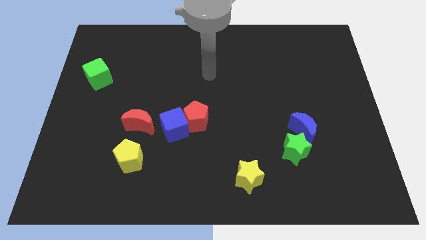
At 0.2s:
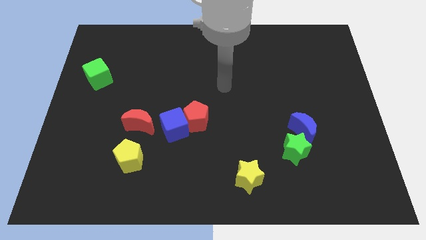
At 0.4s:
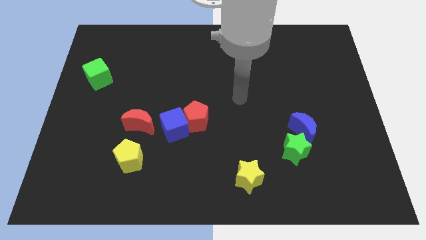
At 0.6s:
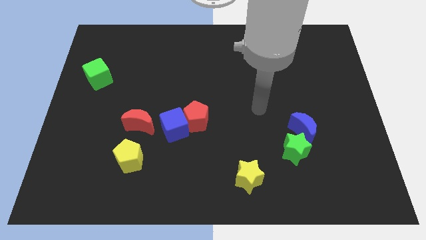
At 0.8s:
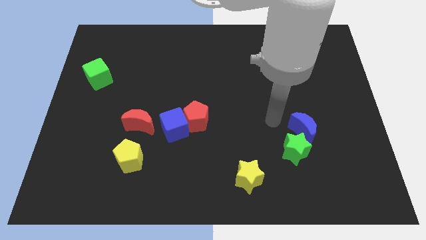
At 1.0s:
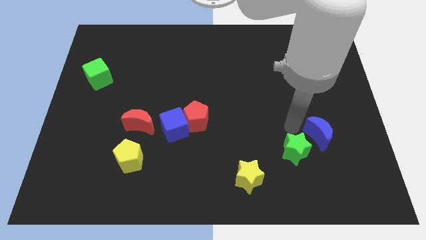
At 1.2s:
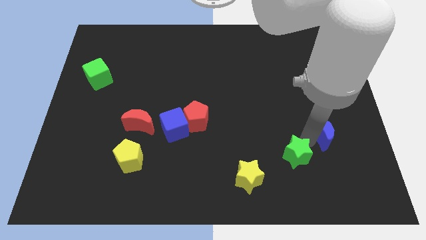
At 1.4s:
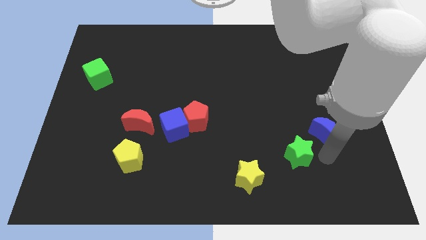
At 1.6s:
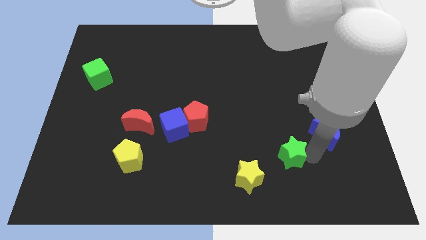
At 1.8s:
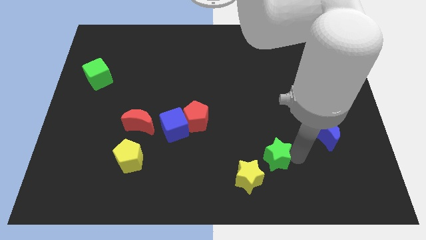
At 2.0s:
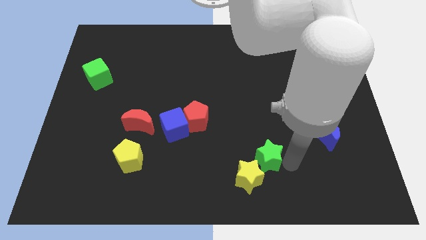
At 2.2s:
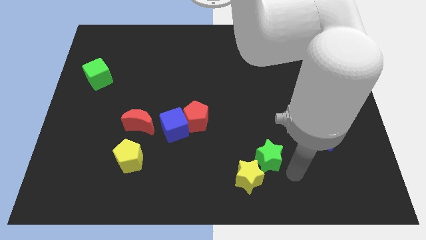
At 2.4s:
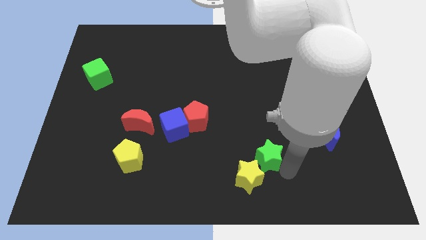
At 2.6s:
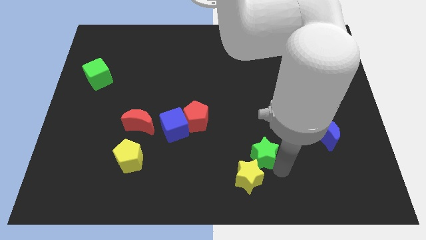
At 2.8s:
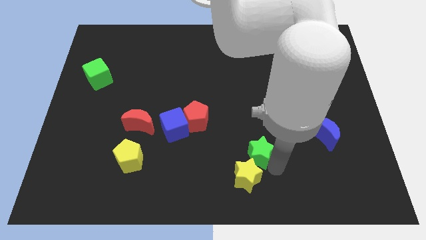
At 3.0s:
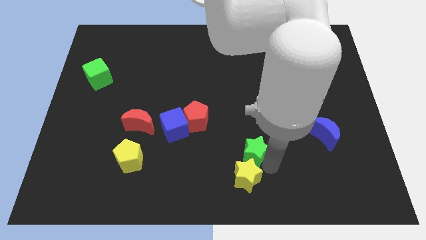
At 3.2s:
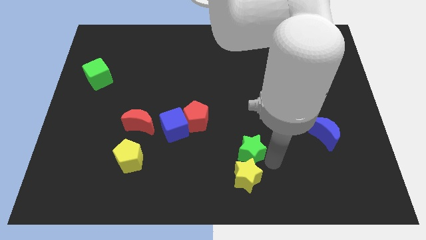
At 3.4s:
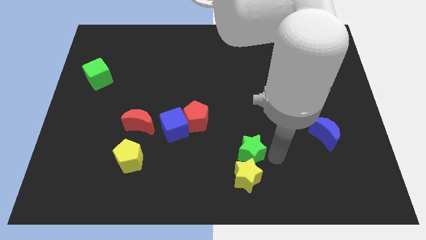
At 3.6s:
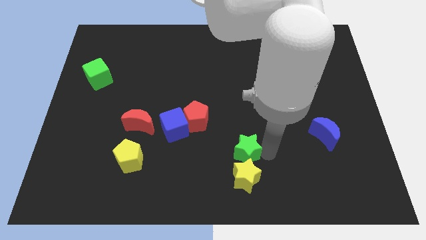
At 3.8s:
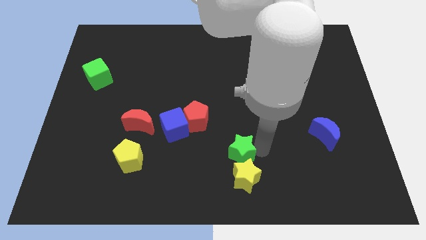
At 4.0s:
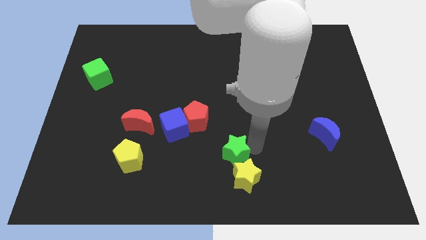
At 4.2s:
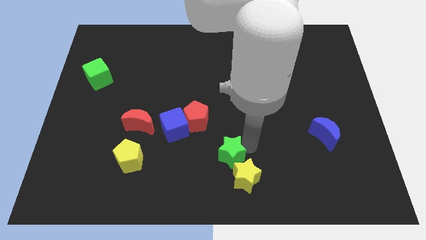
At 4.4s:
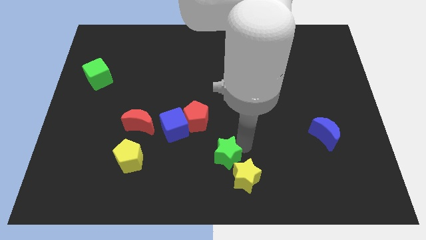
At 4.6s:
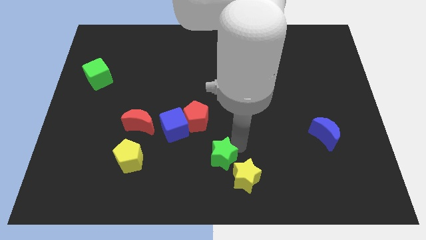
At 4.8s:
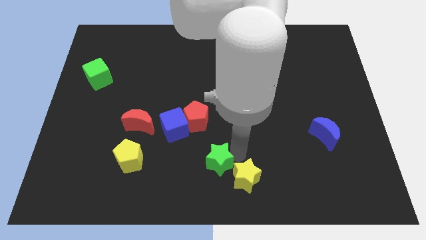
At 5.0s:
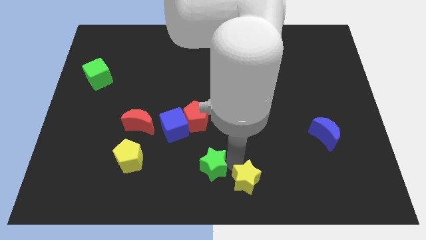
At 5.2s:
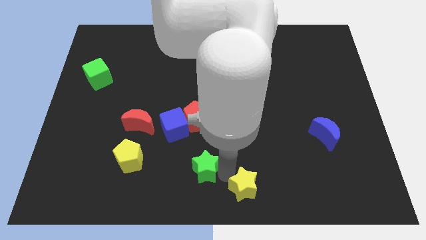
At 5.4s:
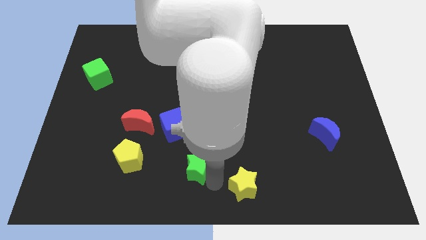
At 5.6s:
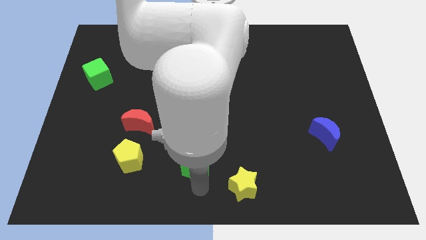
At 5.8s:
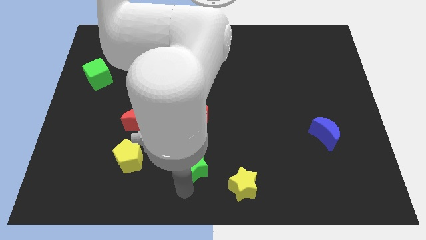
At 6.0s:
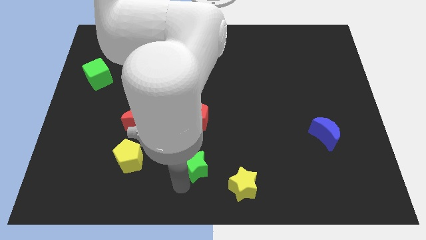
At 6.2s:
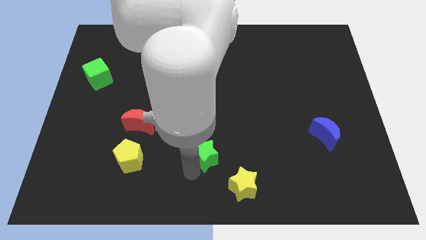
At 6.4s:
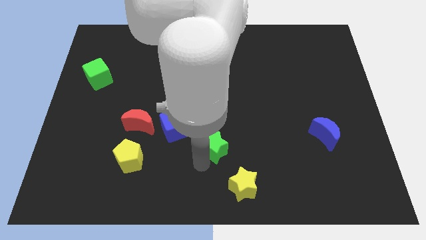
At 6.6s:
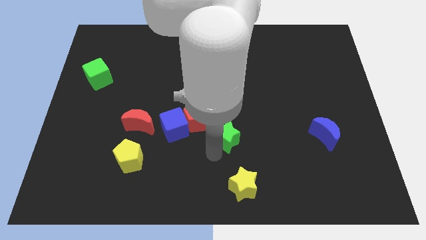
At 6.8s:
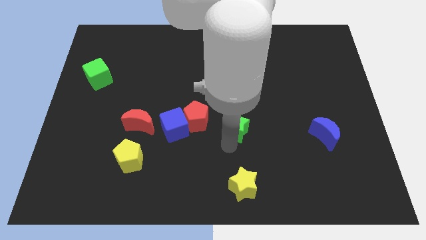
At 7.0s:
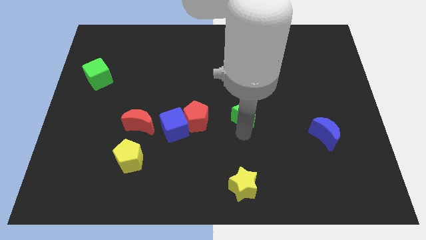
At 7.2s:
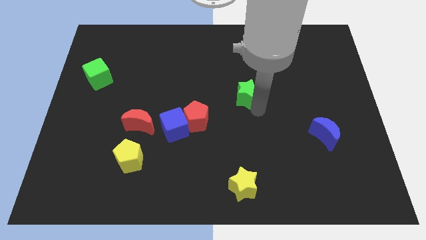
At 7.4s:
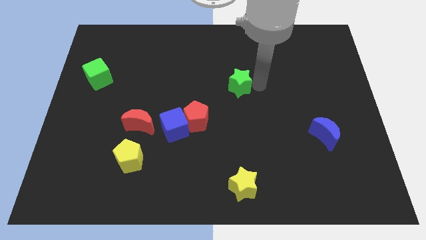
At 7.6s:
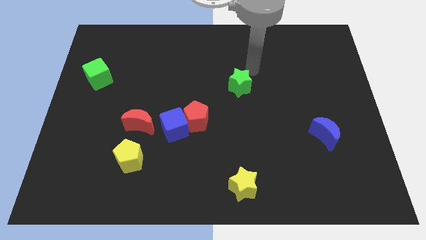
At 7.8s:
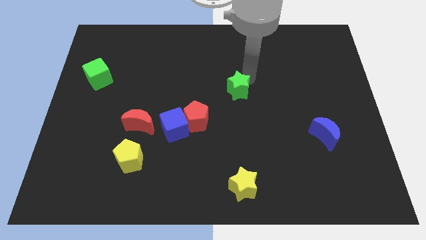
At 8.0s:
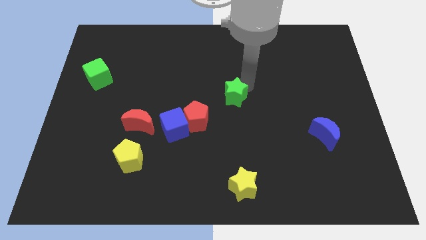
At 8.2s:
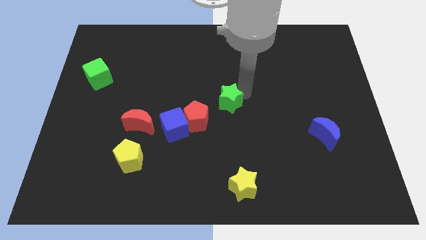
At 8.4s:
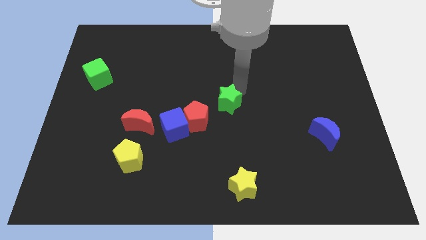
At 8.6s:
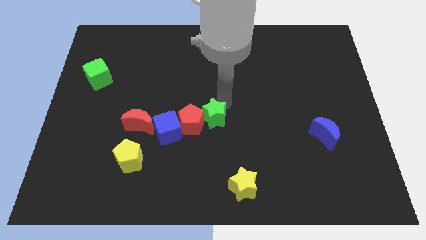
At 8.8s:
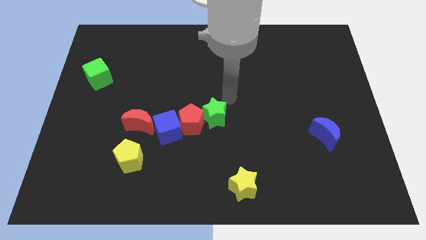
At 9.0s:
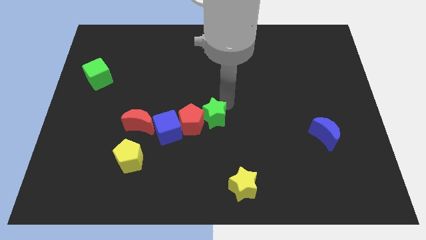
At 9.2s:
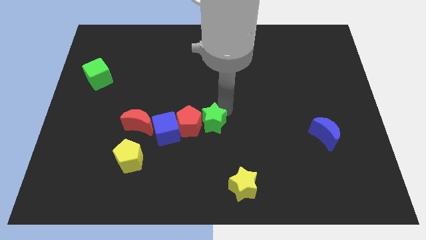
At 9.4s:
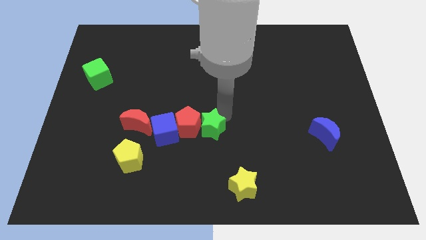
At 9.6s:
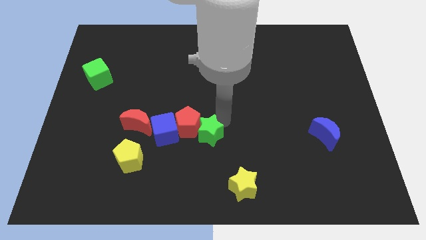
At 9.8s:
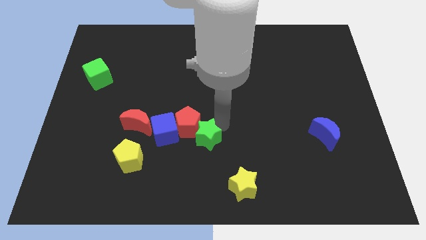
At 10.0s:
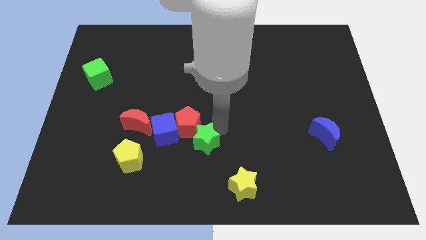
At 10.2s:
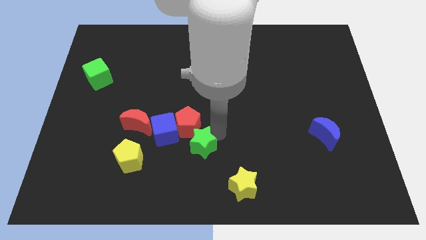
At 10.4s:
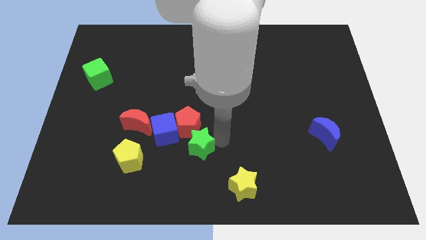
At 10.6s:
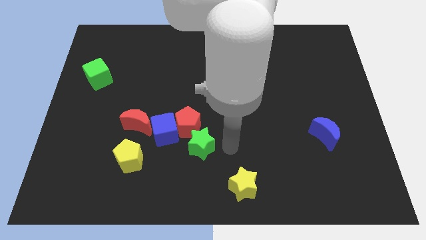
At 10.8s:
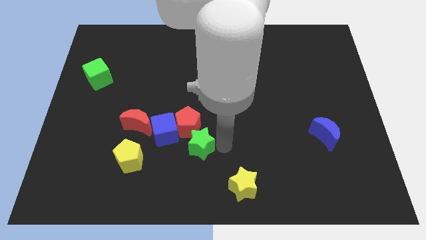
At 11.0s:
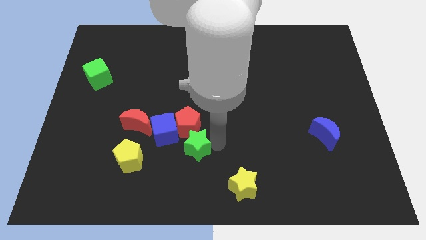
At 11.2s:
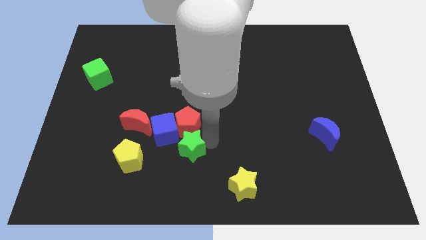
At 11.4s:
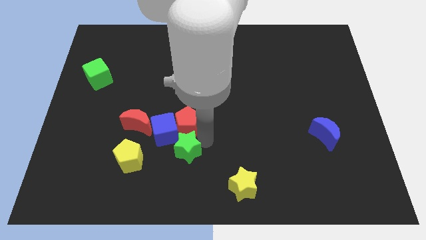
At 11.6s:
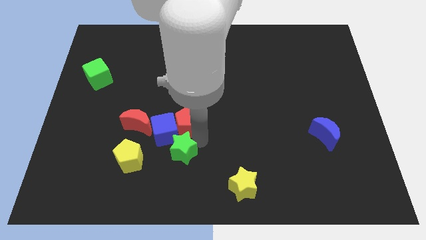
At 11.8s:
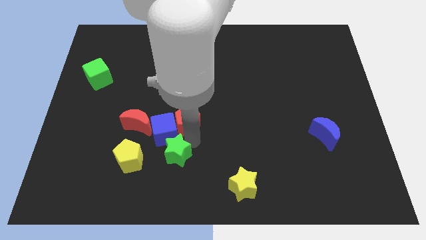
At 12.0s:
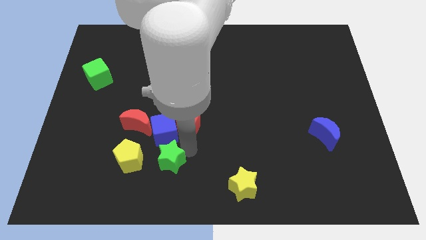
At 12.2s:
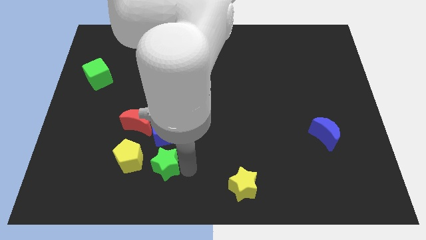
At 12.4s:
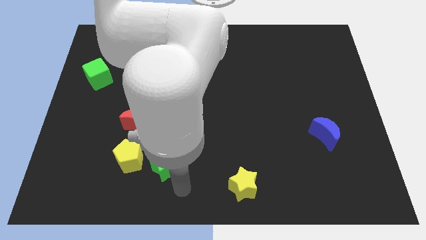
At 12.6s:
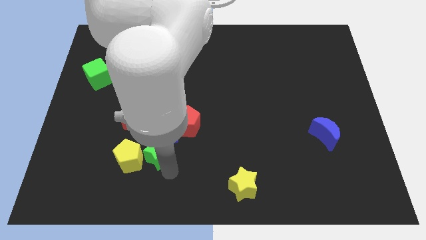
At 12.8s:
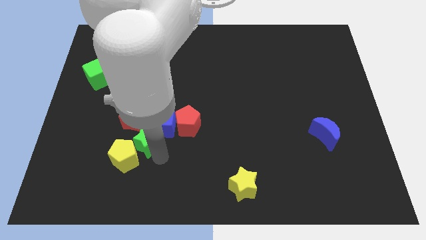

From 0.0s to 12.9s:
move the green star next to the red moon
